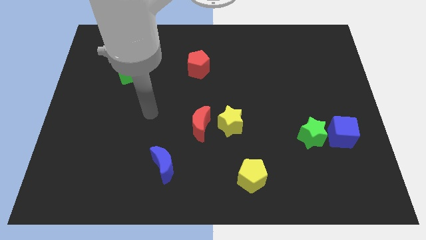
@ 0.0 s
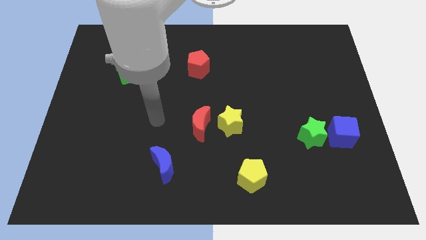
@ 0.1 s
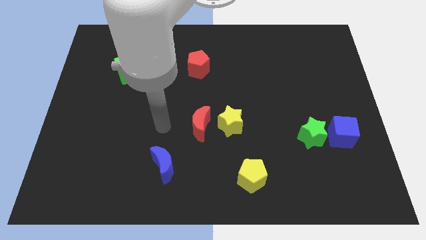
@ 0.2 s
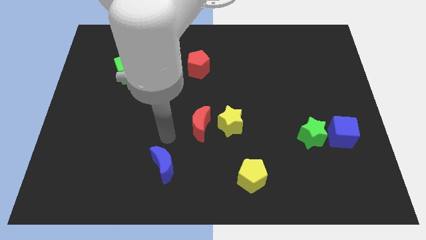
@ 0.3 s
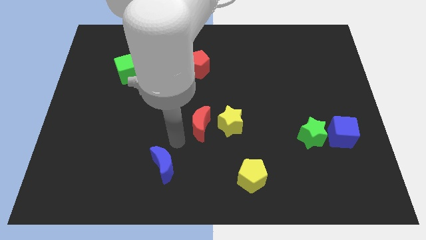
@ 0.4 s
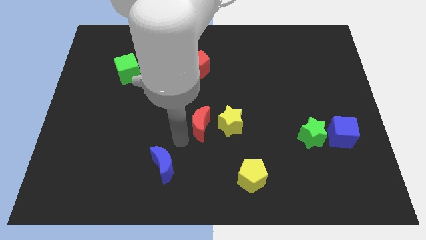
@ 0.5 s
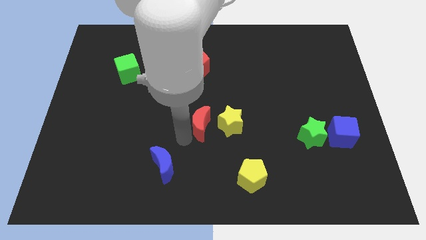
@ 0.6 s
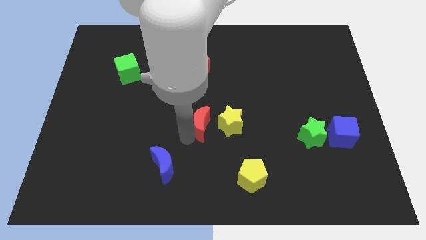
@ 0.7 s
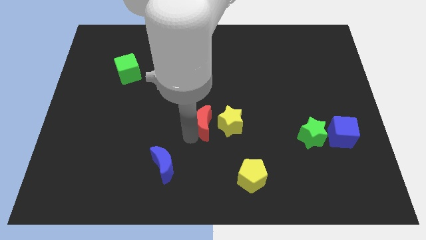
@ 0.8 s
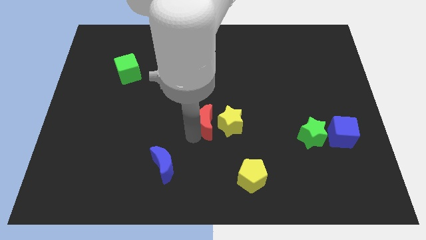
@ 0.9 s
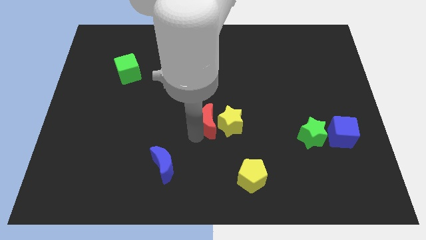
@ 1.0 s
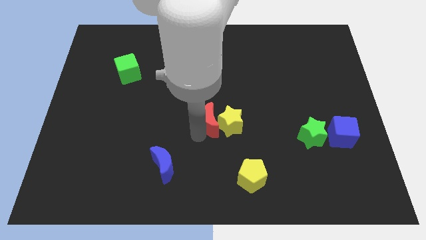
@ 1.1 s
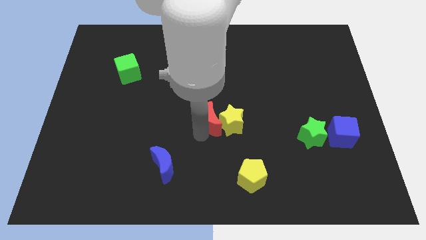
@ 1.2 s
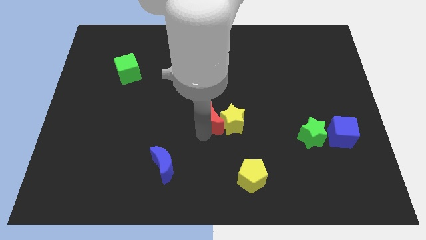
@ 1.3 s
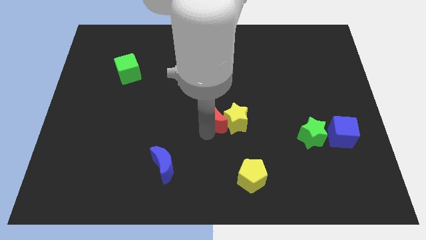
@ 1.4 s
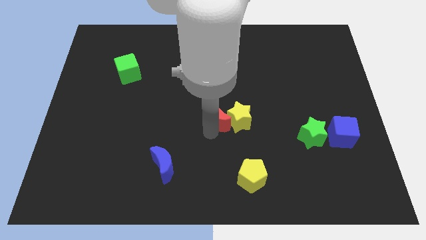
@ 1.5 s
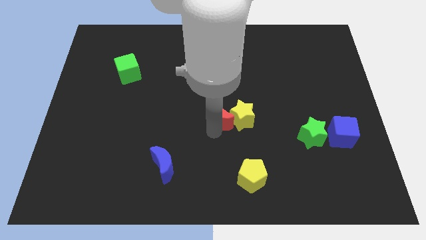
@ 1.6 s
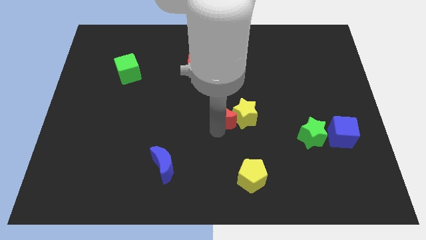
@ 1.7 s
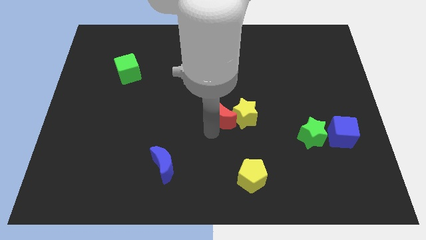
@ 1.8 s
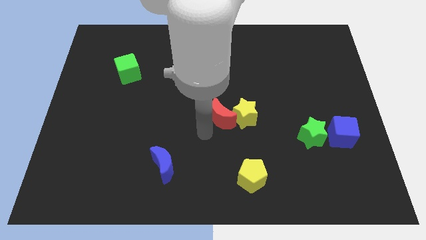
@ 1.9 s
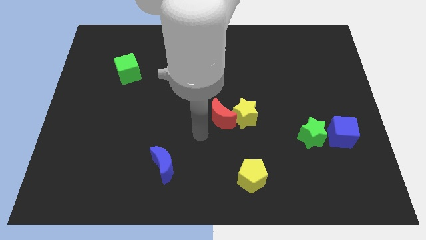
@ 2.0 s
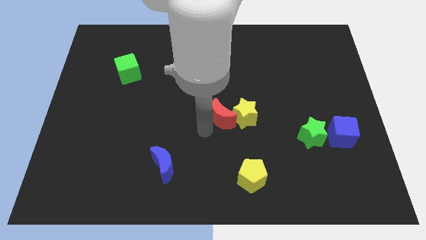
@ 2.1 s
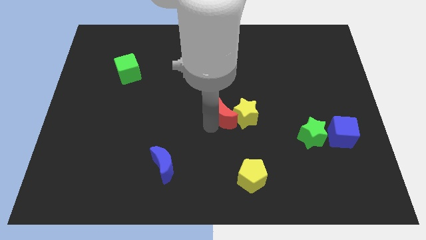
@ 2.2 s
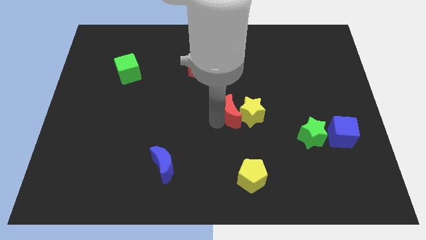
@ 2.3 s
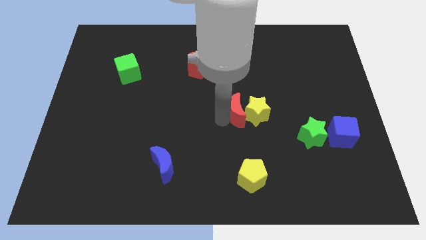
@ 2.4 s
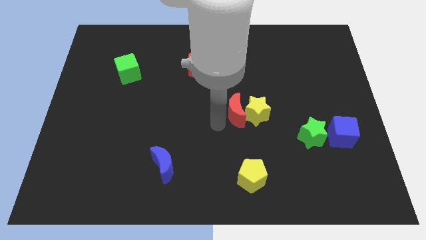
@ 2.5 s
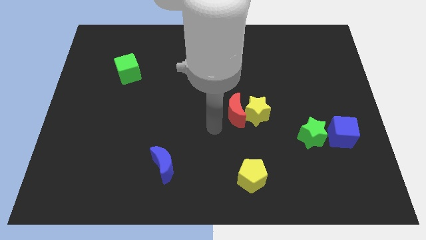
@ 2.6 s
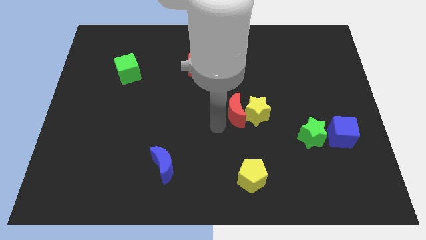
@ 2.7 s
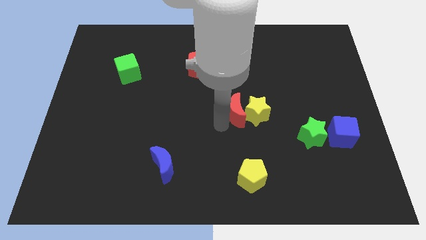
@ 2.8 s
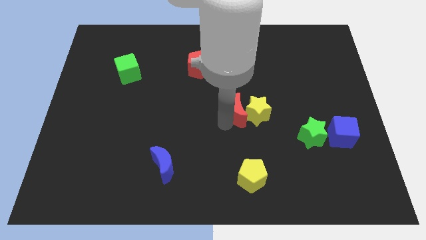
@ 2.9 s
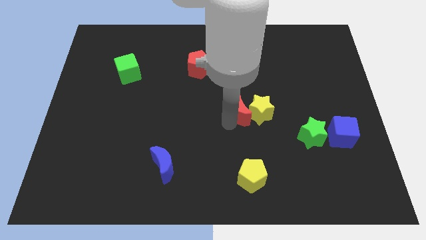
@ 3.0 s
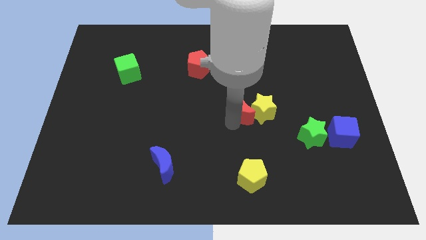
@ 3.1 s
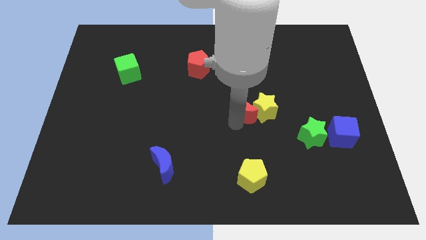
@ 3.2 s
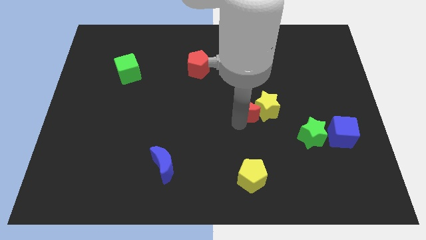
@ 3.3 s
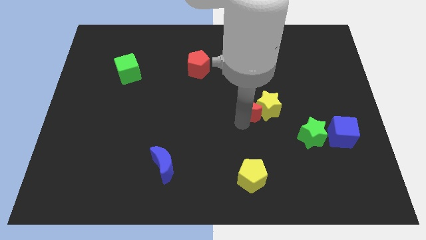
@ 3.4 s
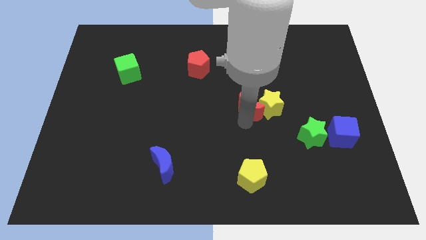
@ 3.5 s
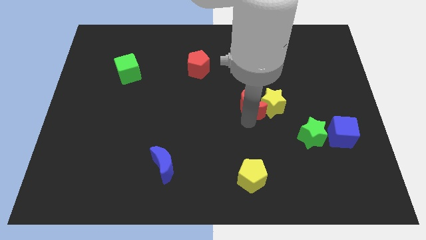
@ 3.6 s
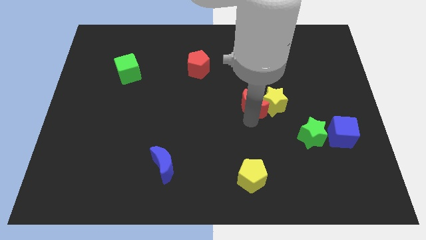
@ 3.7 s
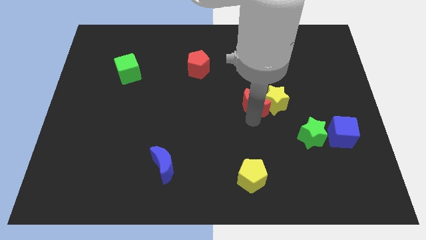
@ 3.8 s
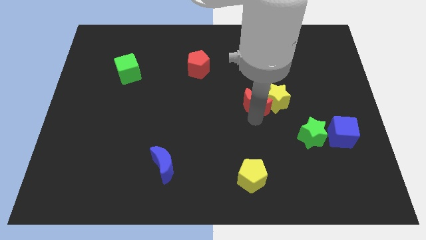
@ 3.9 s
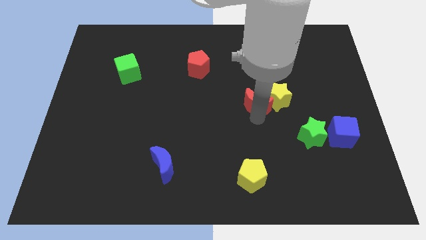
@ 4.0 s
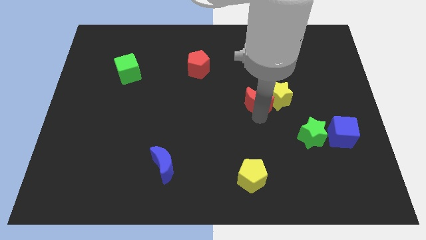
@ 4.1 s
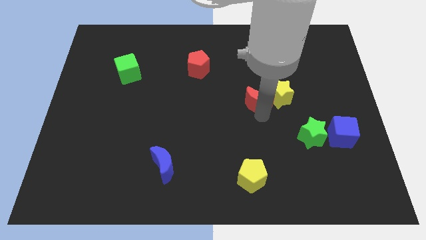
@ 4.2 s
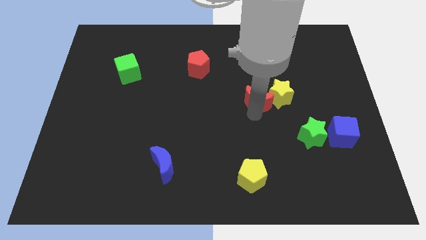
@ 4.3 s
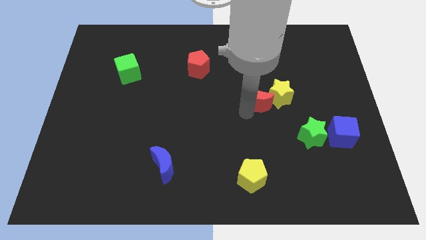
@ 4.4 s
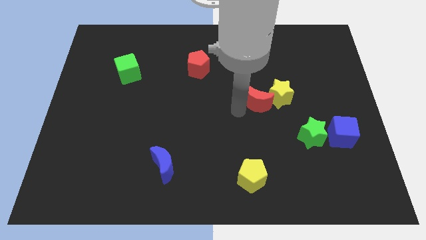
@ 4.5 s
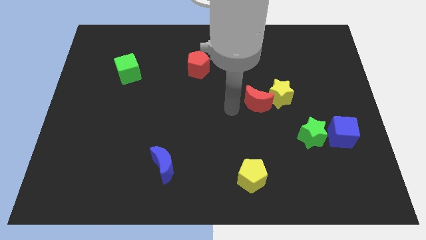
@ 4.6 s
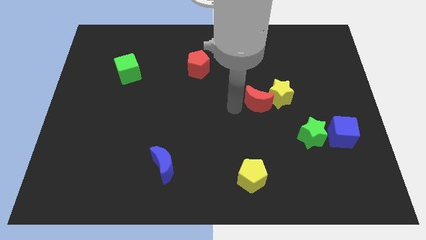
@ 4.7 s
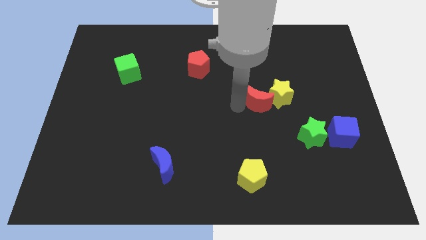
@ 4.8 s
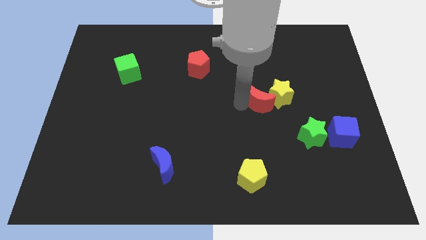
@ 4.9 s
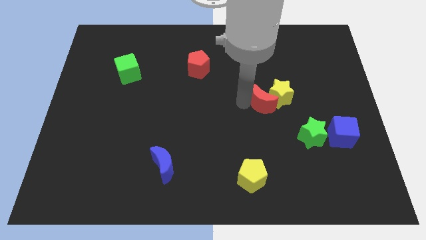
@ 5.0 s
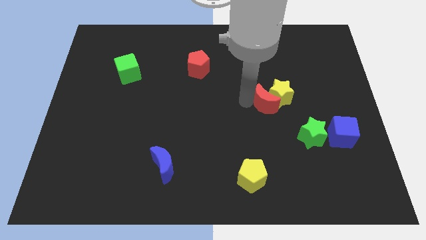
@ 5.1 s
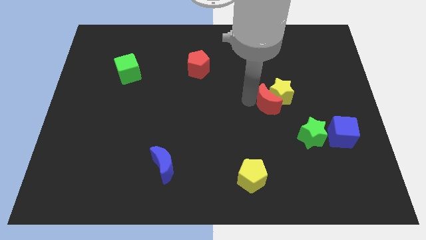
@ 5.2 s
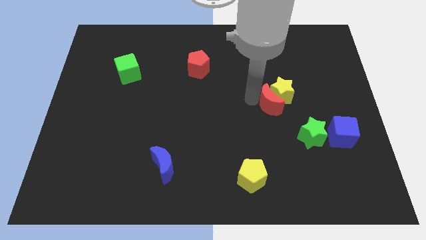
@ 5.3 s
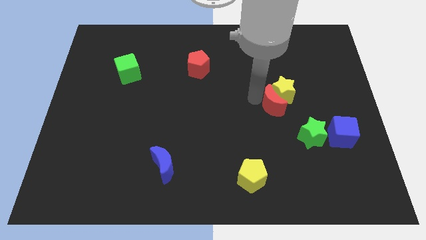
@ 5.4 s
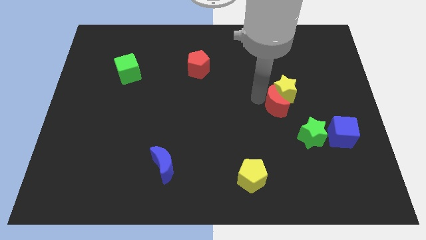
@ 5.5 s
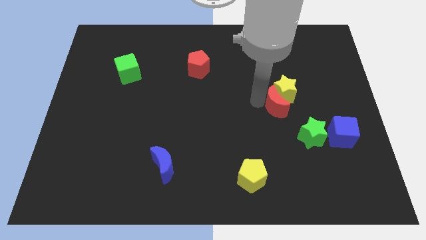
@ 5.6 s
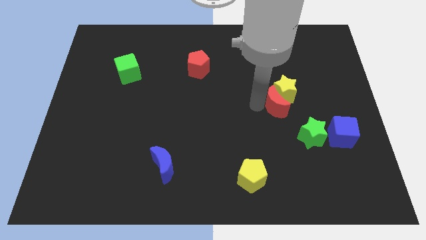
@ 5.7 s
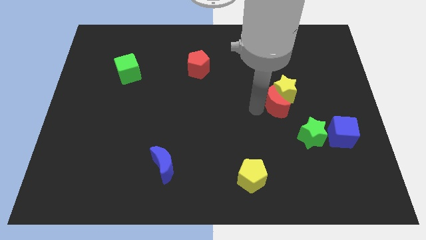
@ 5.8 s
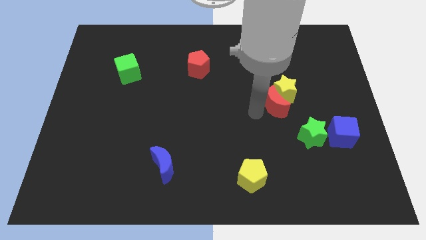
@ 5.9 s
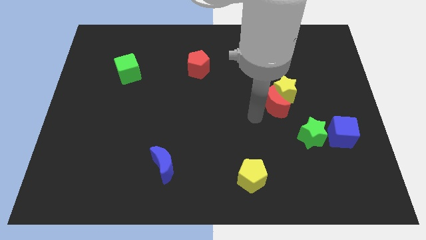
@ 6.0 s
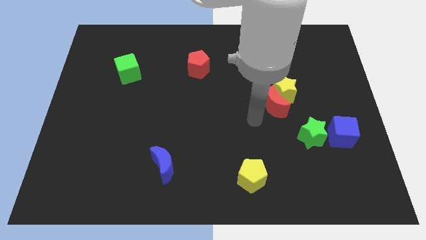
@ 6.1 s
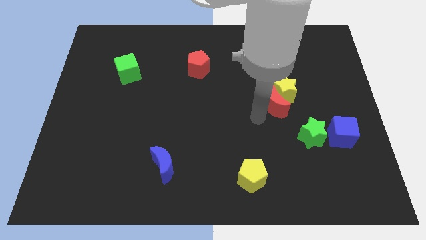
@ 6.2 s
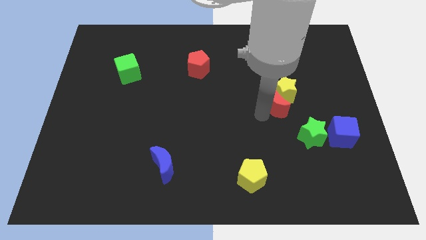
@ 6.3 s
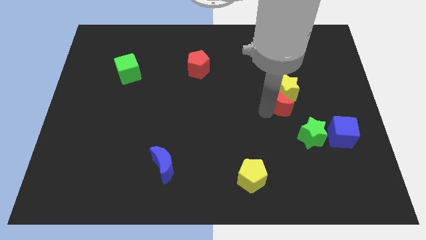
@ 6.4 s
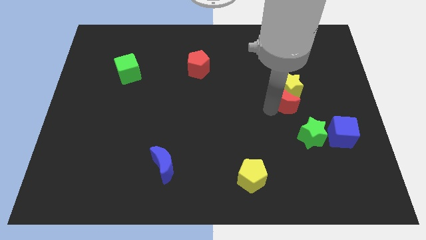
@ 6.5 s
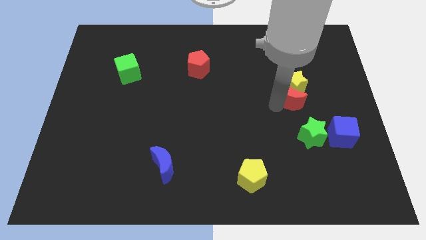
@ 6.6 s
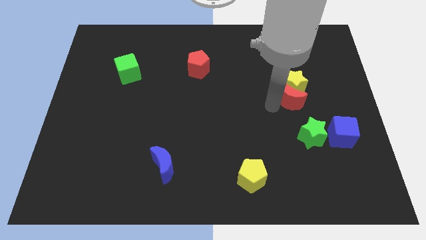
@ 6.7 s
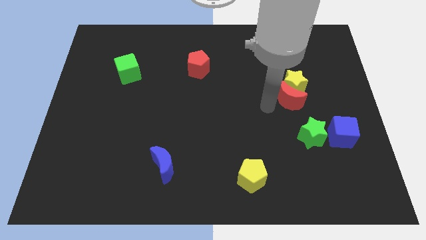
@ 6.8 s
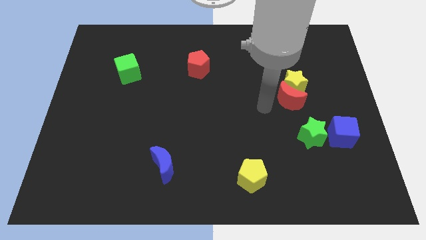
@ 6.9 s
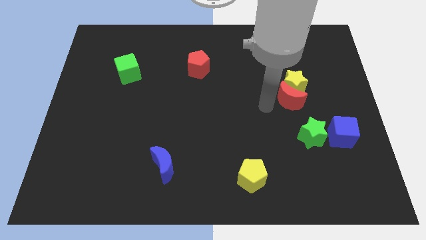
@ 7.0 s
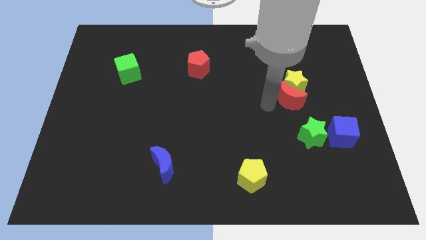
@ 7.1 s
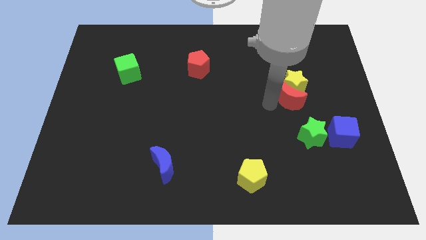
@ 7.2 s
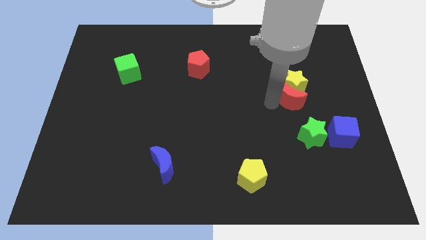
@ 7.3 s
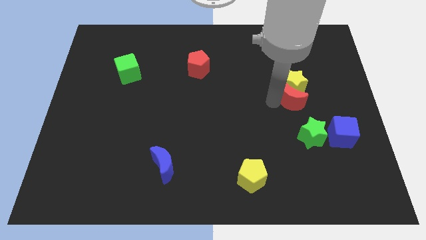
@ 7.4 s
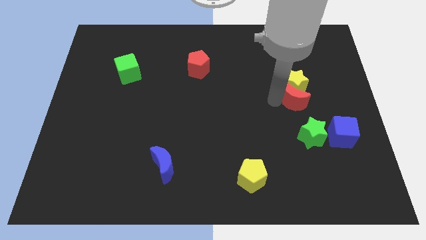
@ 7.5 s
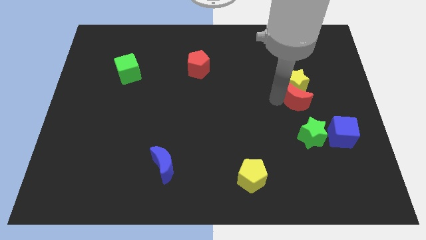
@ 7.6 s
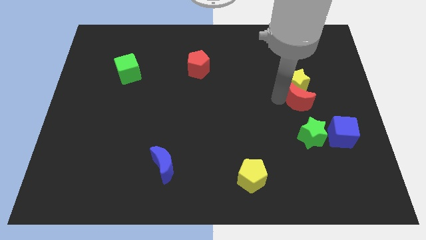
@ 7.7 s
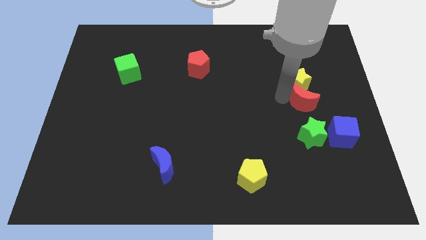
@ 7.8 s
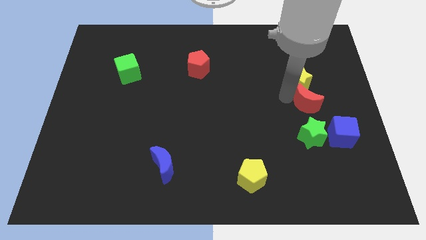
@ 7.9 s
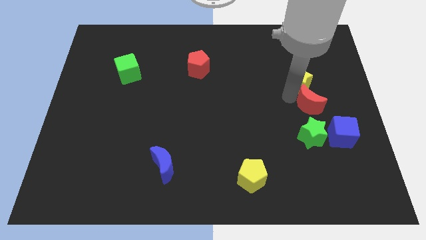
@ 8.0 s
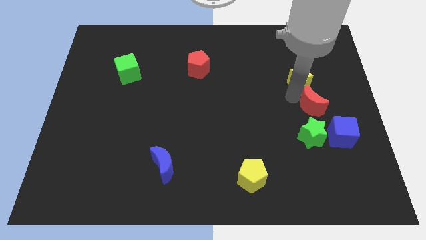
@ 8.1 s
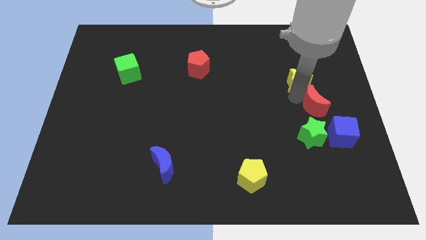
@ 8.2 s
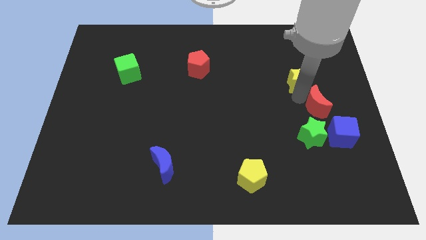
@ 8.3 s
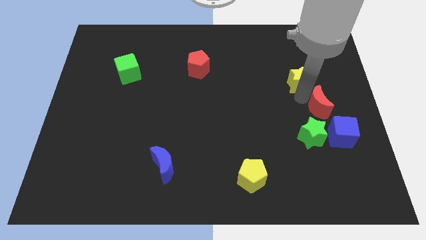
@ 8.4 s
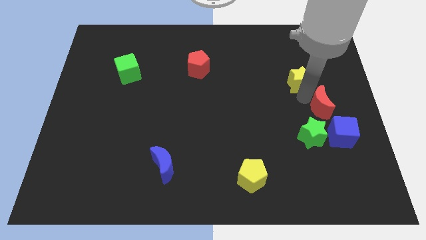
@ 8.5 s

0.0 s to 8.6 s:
slide the red moon to the right side
